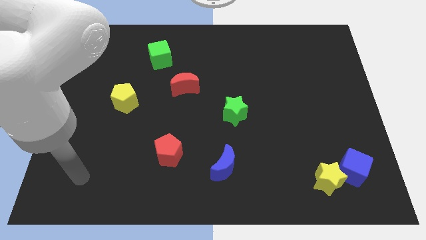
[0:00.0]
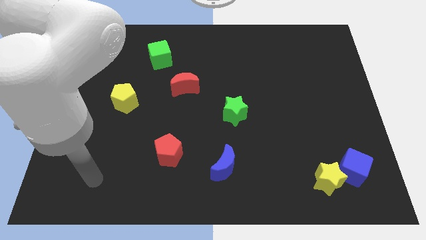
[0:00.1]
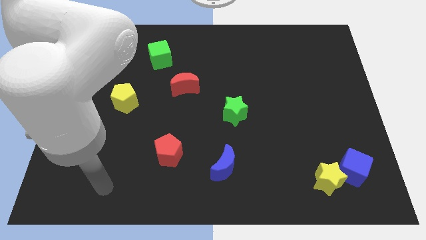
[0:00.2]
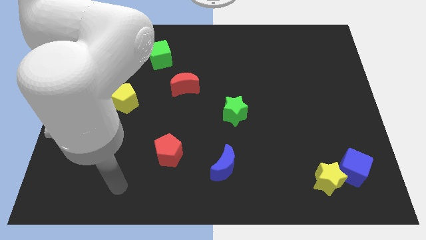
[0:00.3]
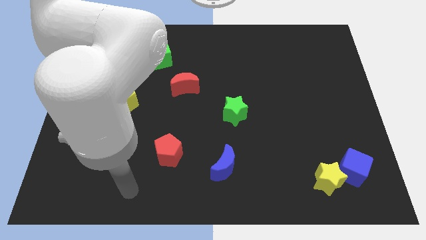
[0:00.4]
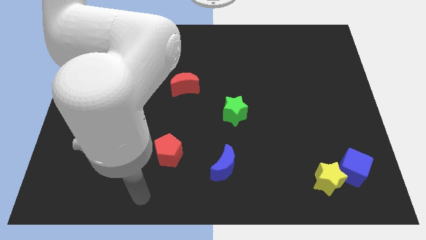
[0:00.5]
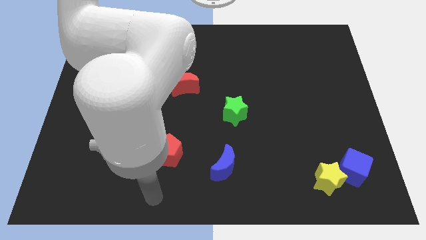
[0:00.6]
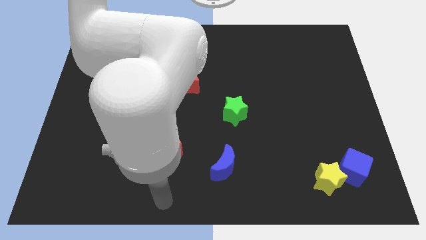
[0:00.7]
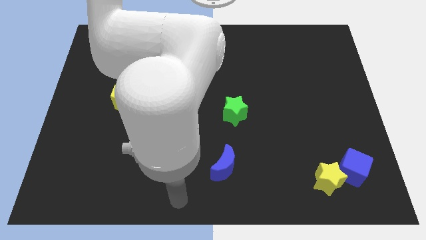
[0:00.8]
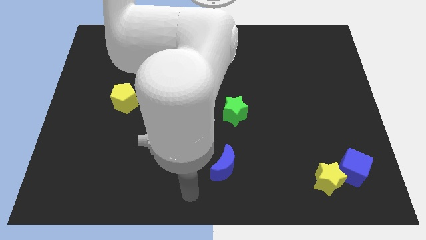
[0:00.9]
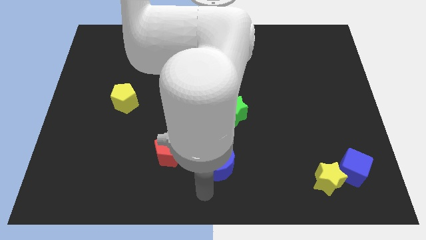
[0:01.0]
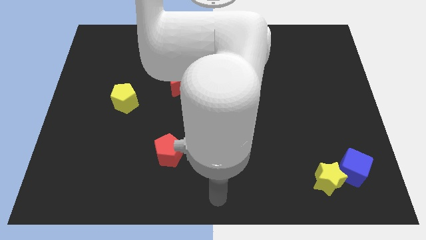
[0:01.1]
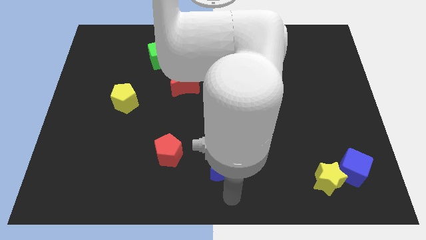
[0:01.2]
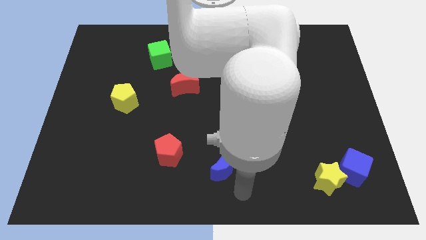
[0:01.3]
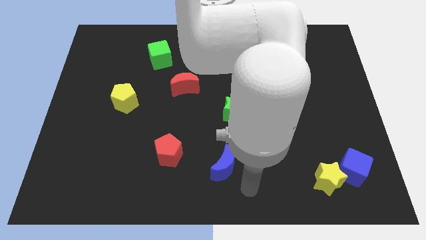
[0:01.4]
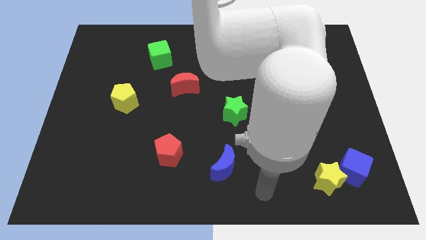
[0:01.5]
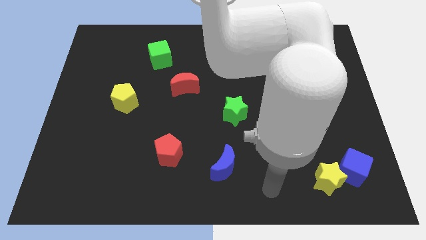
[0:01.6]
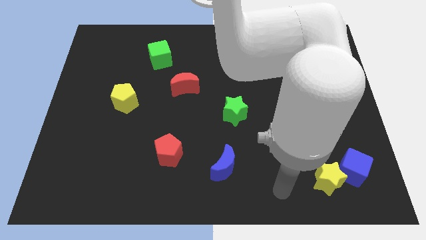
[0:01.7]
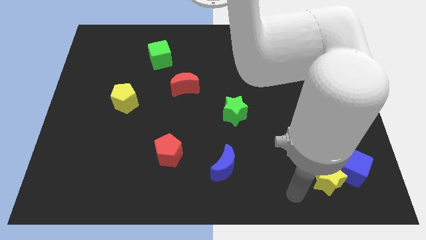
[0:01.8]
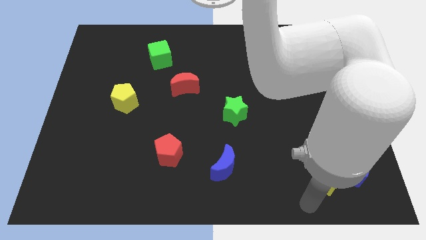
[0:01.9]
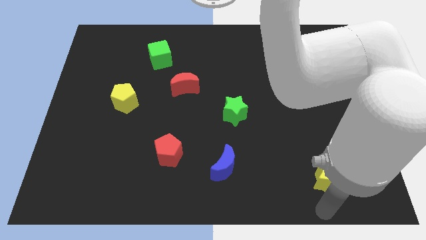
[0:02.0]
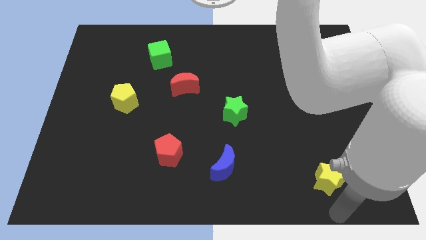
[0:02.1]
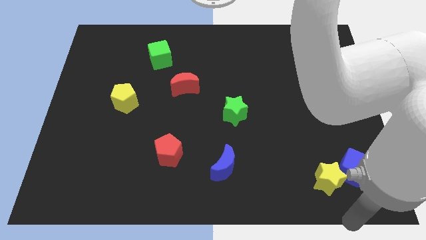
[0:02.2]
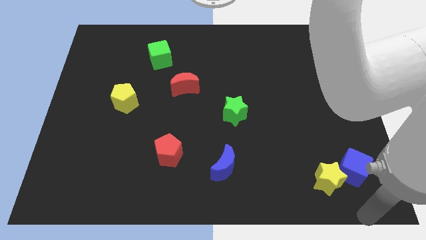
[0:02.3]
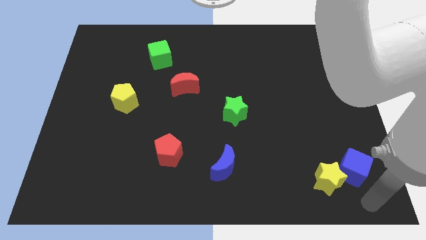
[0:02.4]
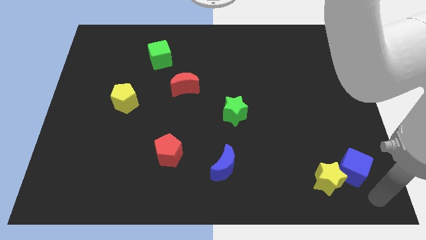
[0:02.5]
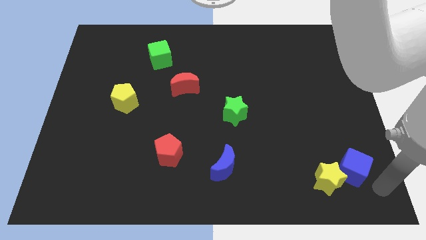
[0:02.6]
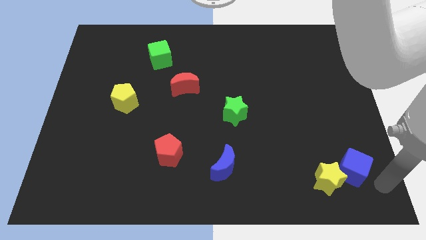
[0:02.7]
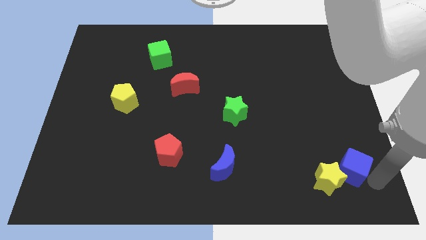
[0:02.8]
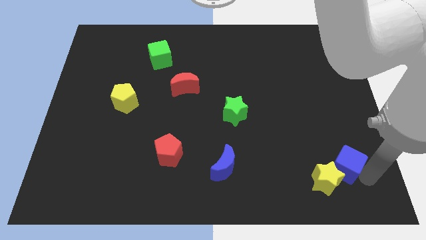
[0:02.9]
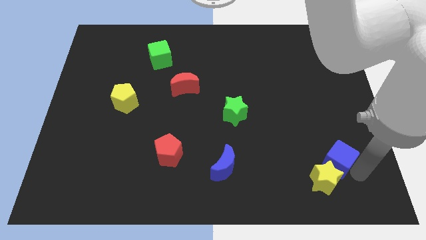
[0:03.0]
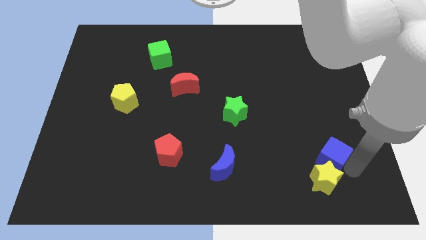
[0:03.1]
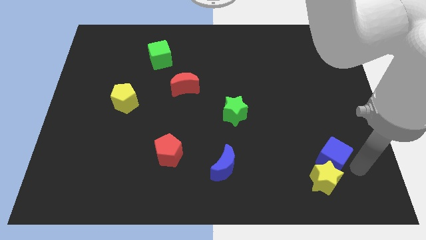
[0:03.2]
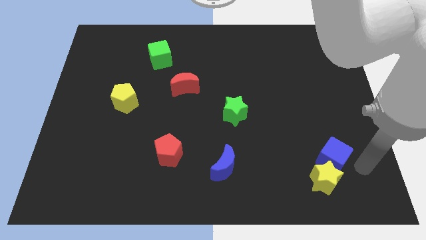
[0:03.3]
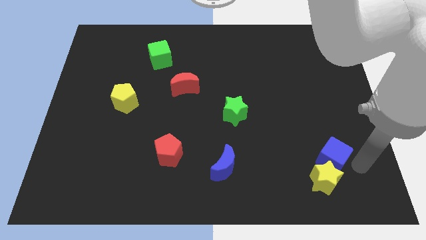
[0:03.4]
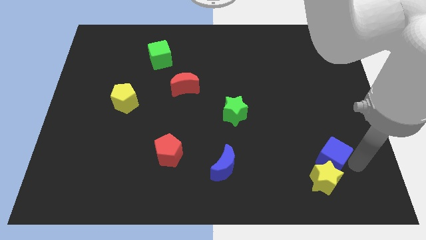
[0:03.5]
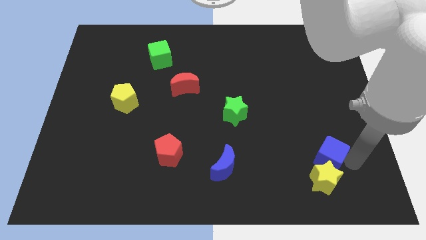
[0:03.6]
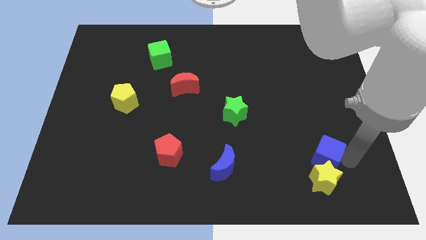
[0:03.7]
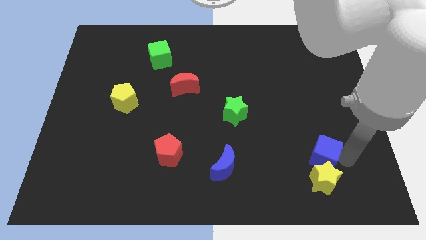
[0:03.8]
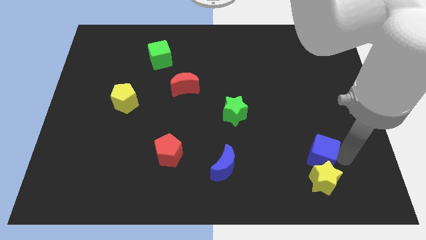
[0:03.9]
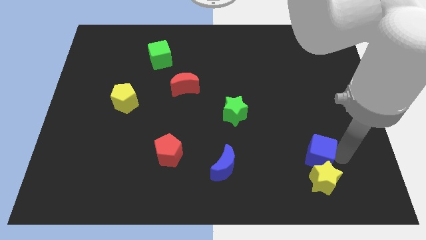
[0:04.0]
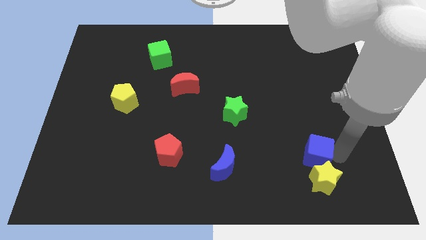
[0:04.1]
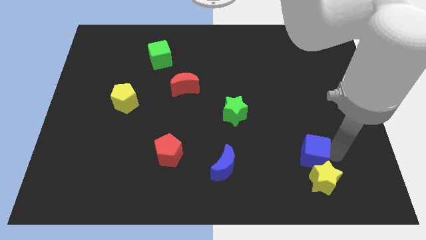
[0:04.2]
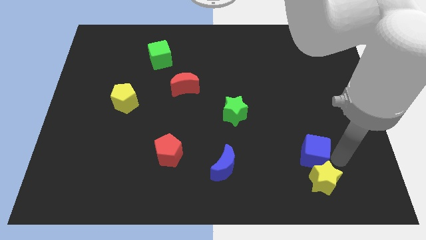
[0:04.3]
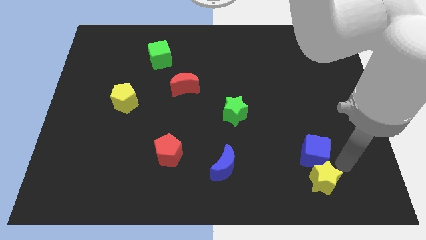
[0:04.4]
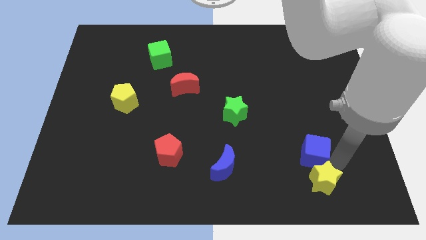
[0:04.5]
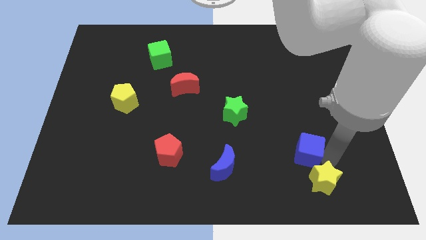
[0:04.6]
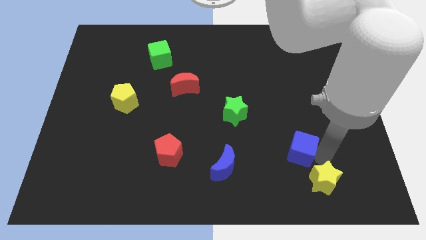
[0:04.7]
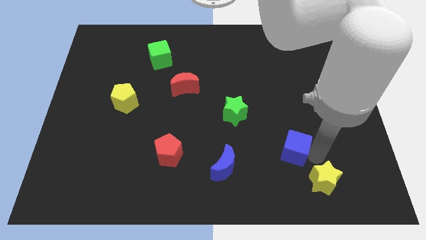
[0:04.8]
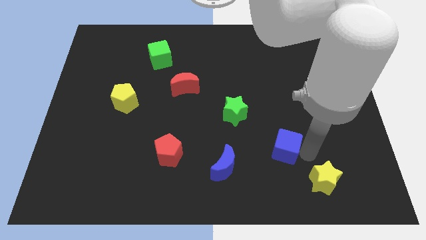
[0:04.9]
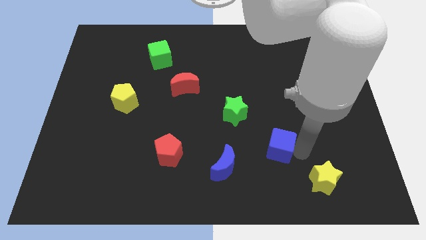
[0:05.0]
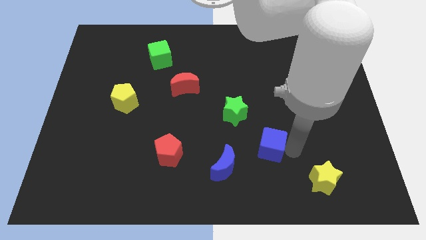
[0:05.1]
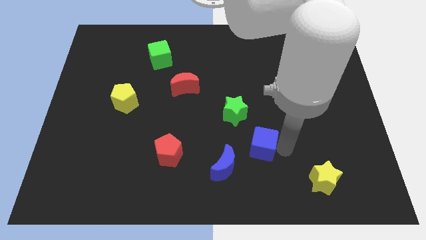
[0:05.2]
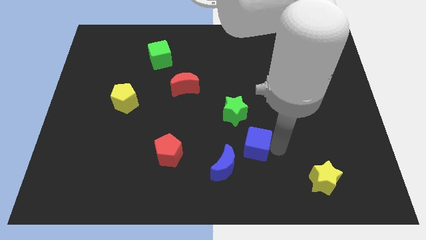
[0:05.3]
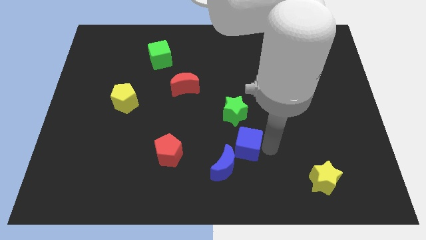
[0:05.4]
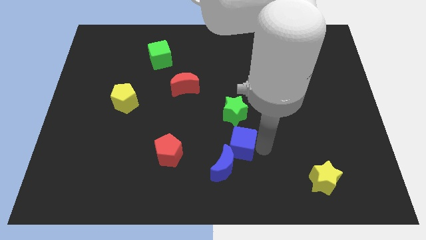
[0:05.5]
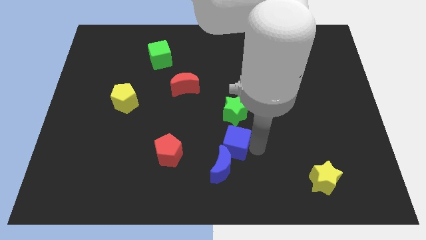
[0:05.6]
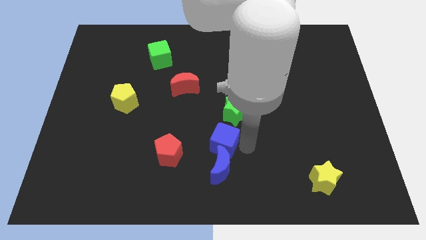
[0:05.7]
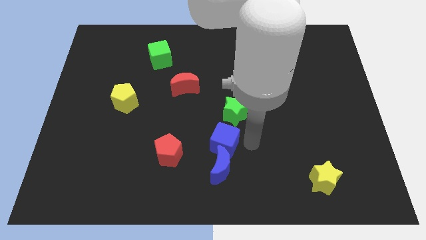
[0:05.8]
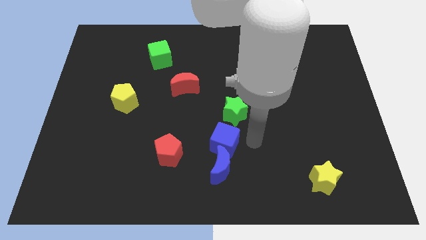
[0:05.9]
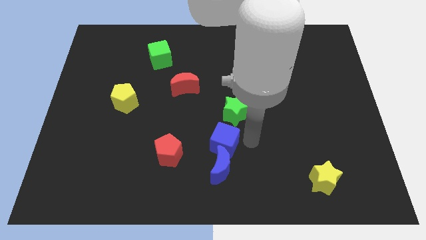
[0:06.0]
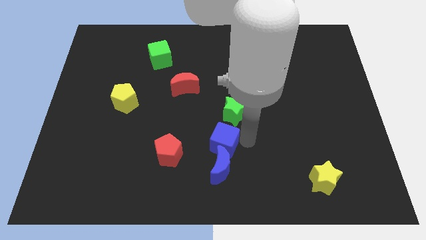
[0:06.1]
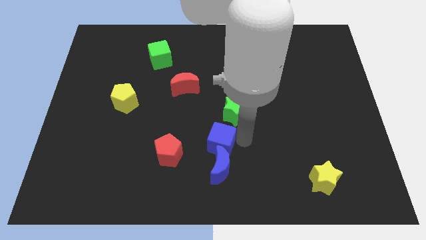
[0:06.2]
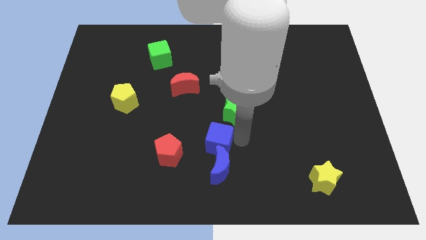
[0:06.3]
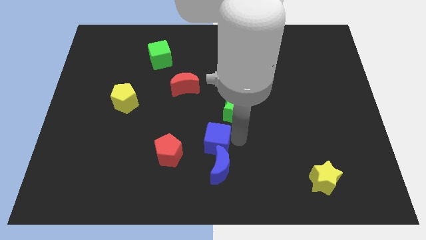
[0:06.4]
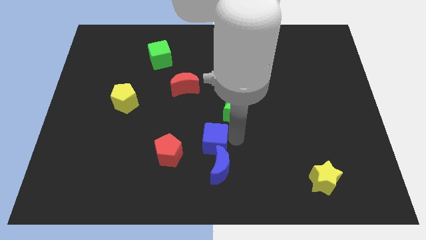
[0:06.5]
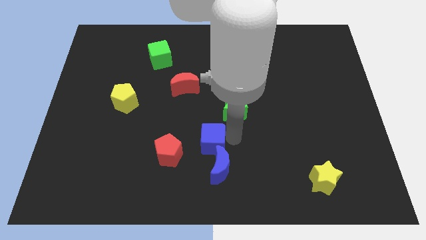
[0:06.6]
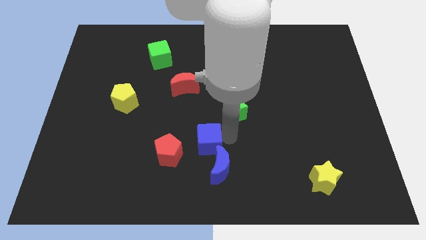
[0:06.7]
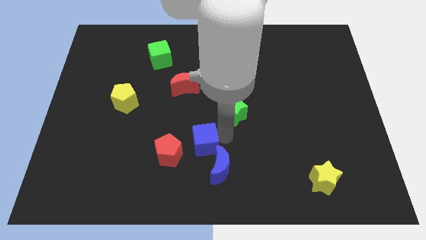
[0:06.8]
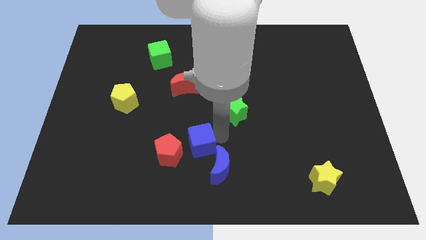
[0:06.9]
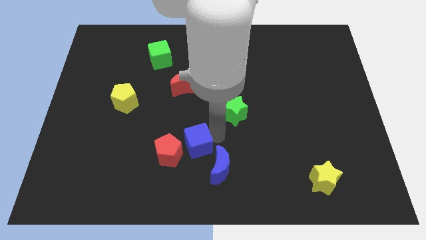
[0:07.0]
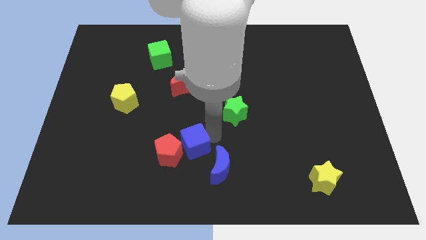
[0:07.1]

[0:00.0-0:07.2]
slide the blue cube to the red pentagon

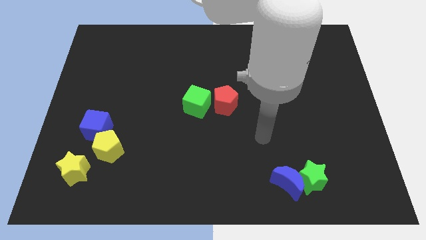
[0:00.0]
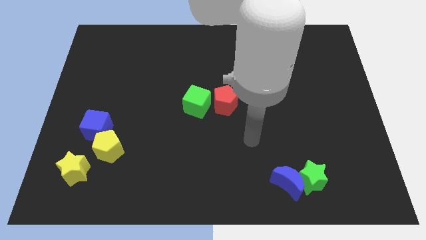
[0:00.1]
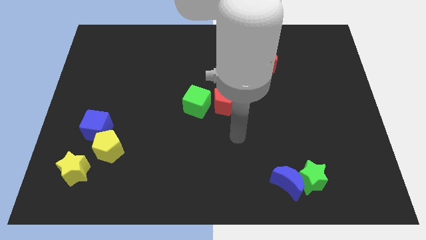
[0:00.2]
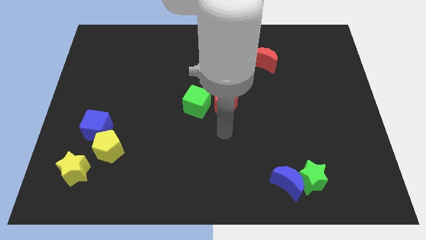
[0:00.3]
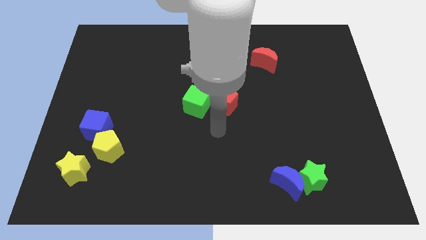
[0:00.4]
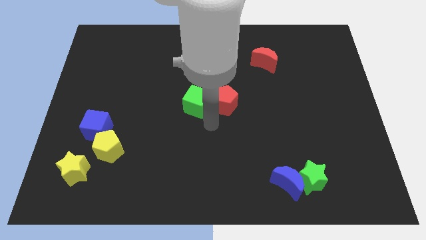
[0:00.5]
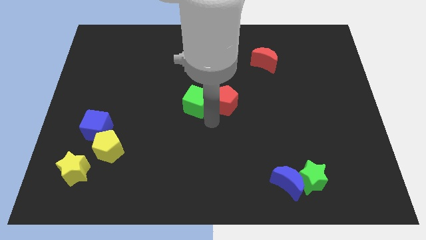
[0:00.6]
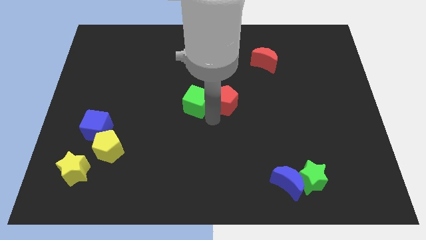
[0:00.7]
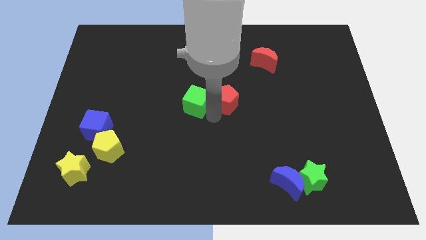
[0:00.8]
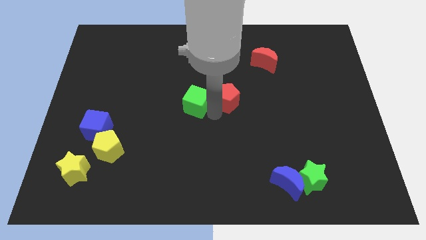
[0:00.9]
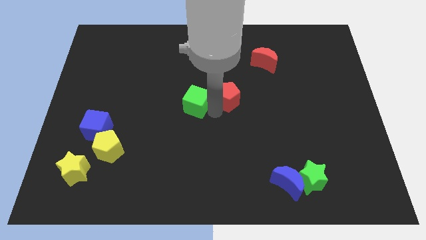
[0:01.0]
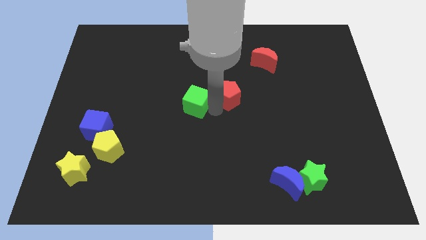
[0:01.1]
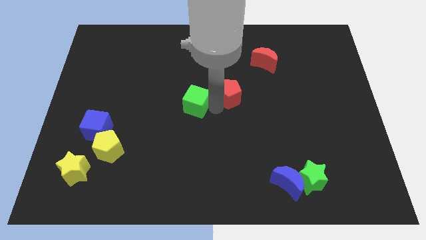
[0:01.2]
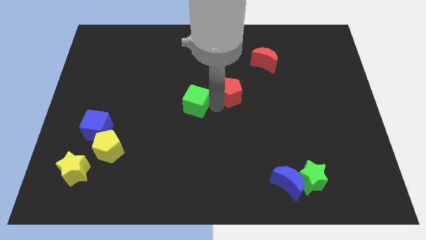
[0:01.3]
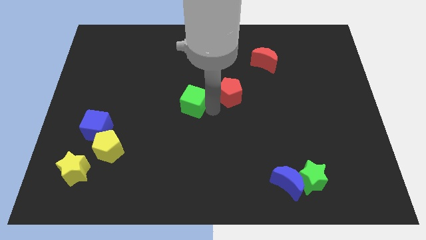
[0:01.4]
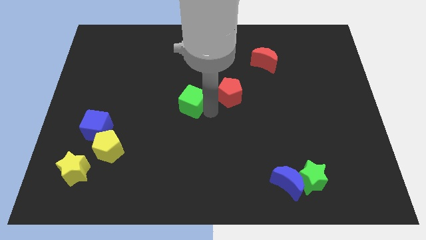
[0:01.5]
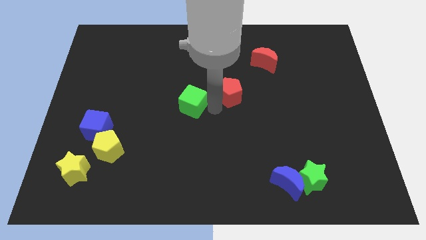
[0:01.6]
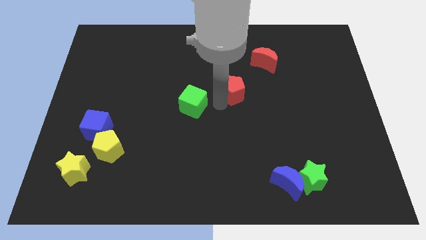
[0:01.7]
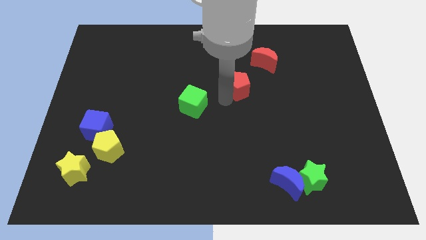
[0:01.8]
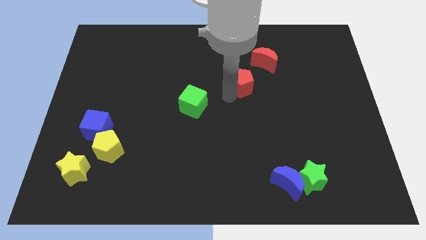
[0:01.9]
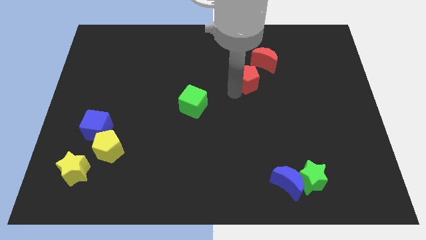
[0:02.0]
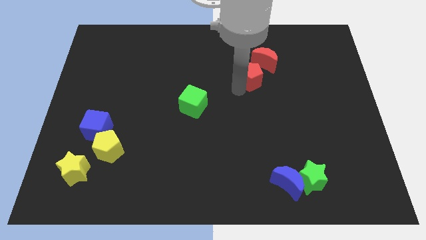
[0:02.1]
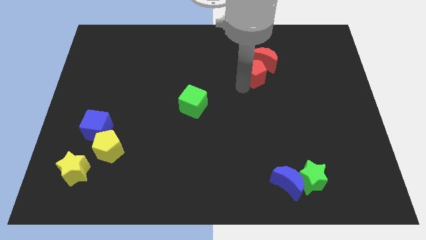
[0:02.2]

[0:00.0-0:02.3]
put the red pentagon to the red moon
